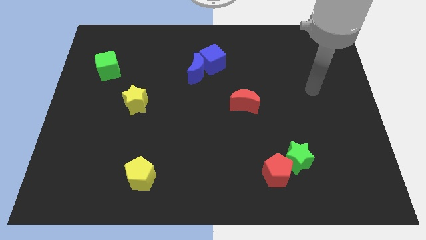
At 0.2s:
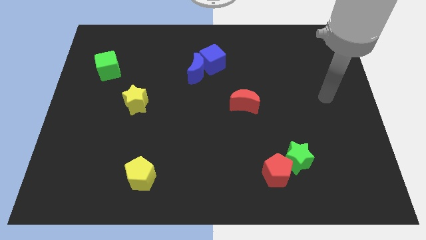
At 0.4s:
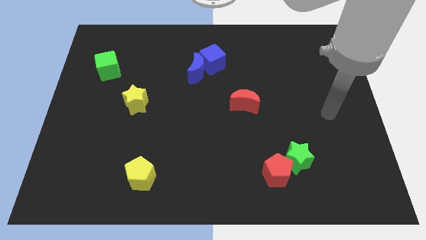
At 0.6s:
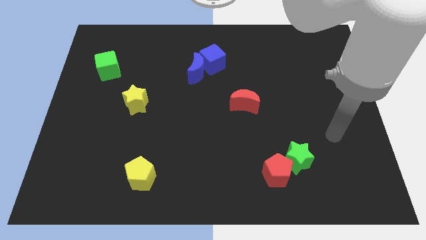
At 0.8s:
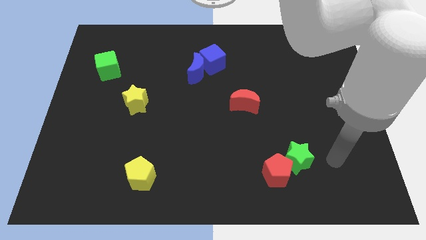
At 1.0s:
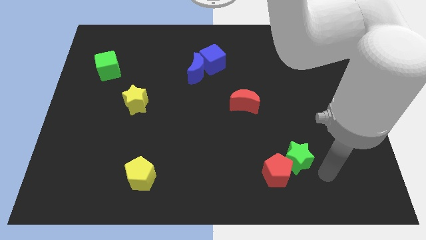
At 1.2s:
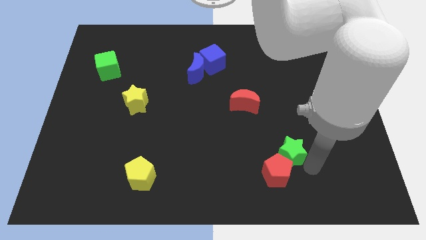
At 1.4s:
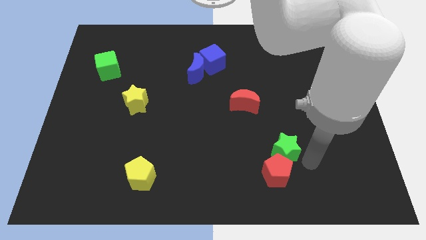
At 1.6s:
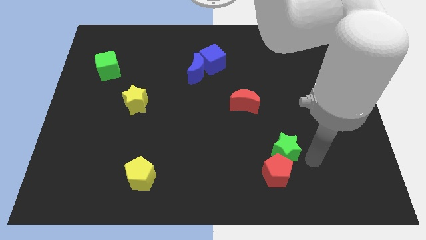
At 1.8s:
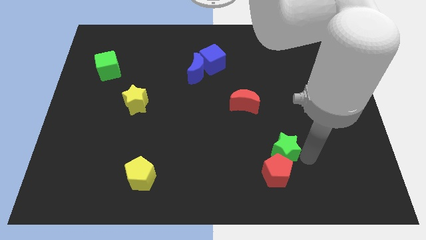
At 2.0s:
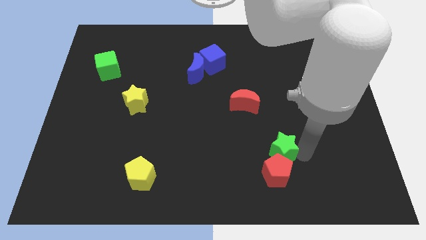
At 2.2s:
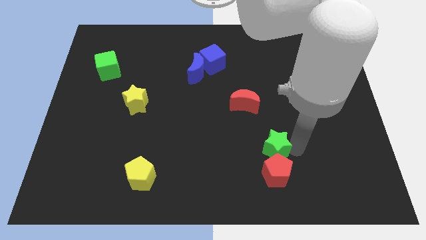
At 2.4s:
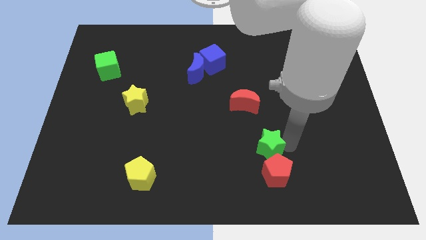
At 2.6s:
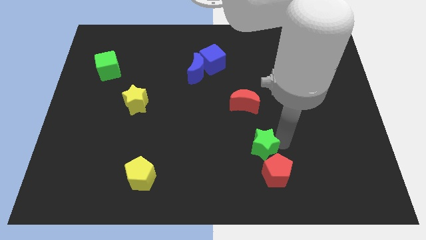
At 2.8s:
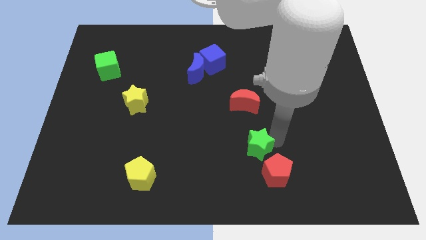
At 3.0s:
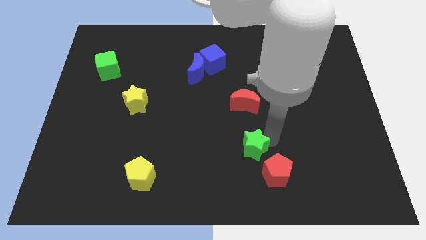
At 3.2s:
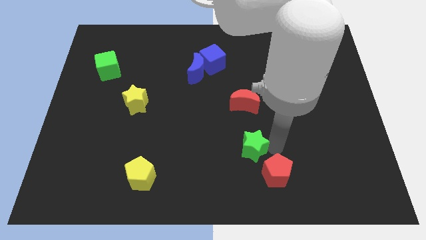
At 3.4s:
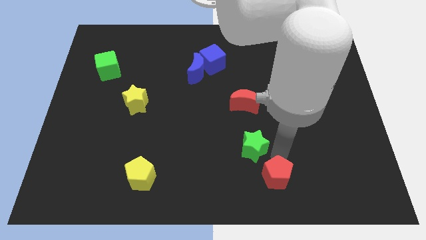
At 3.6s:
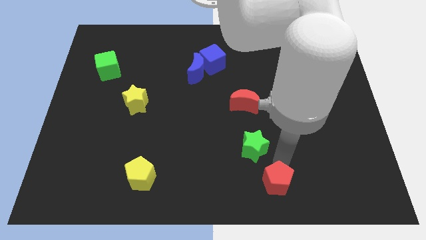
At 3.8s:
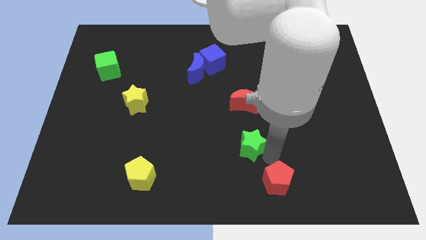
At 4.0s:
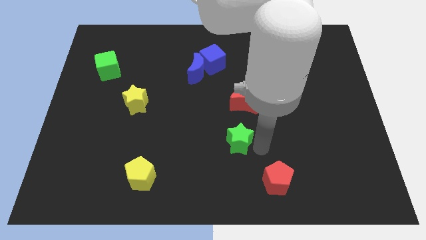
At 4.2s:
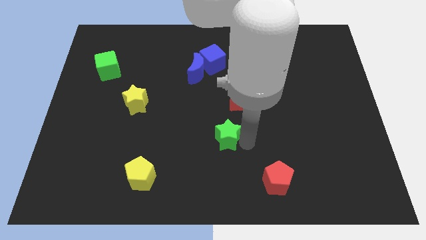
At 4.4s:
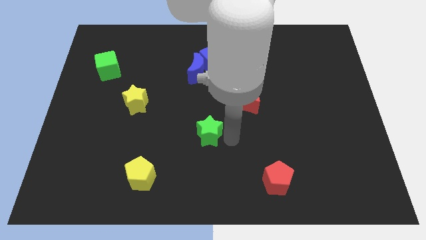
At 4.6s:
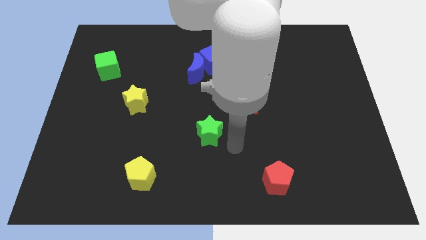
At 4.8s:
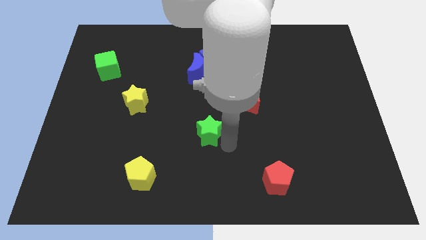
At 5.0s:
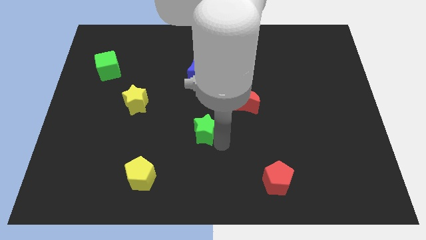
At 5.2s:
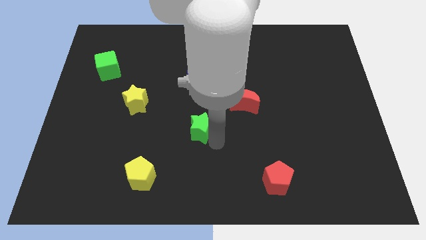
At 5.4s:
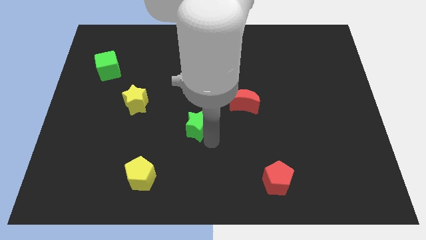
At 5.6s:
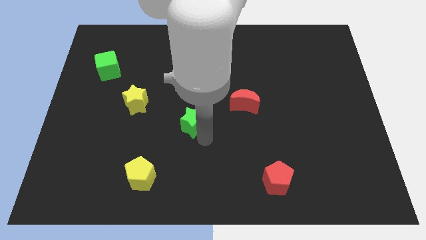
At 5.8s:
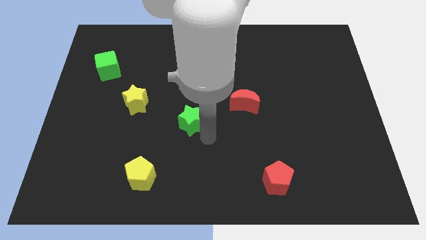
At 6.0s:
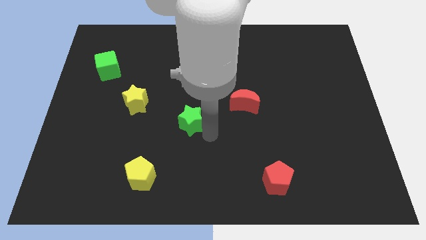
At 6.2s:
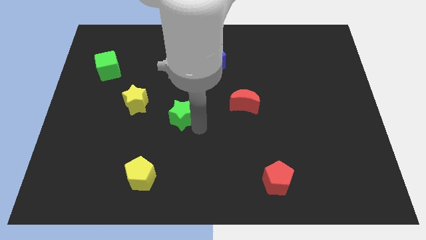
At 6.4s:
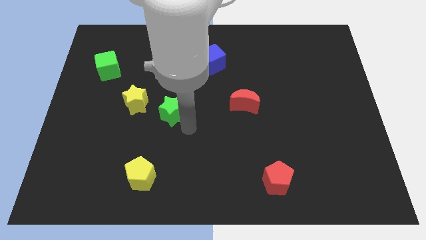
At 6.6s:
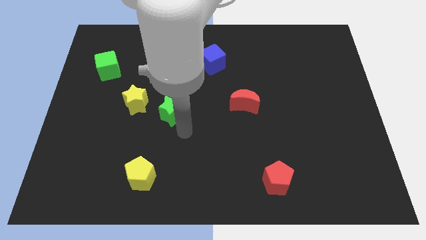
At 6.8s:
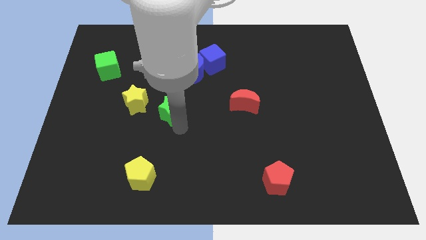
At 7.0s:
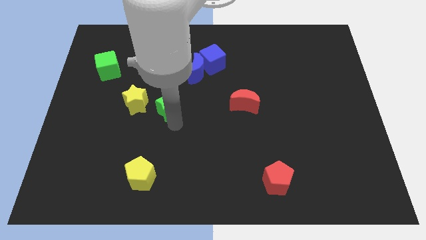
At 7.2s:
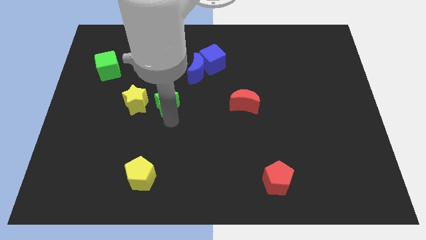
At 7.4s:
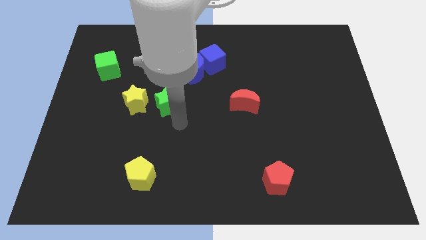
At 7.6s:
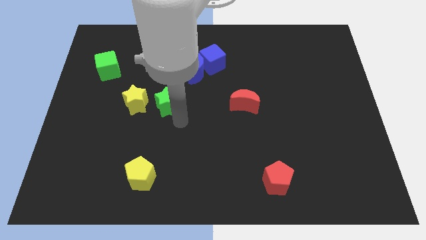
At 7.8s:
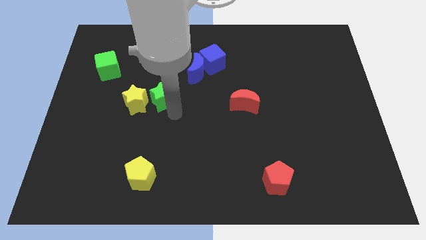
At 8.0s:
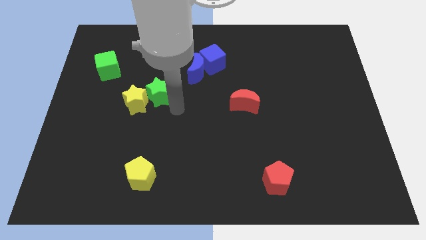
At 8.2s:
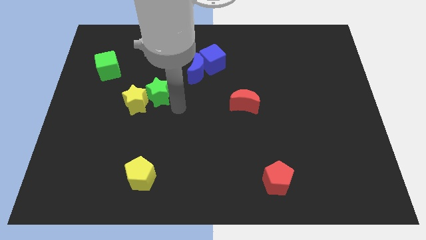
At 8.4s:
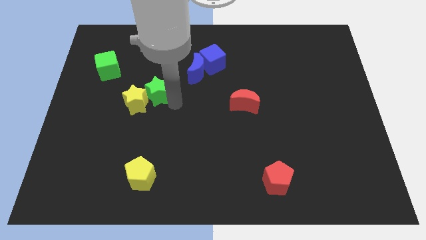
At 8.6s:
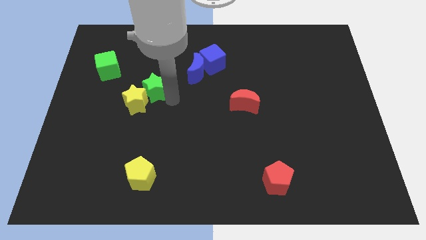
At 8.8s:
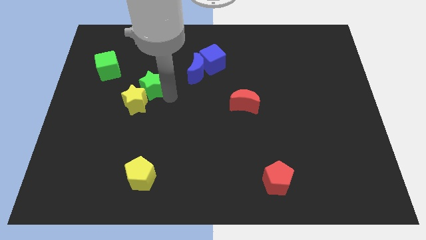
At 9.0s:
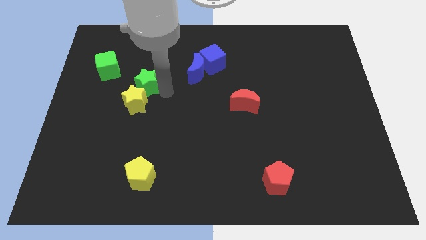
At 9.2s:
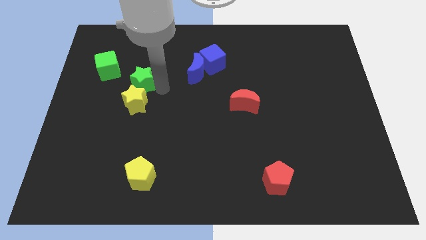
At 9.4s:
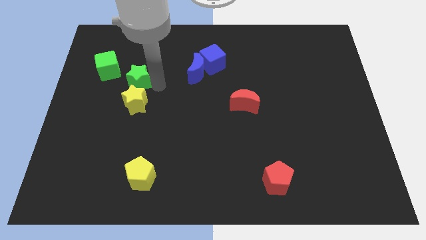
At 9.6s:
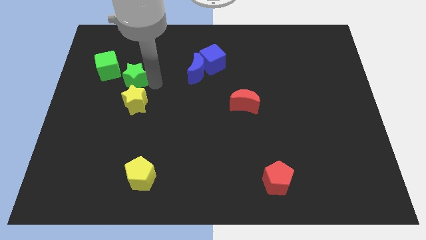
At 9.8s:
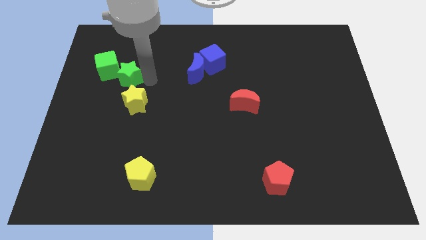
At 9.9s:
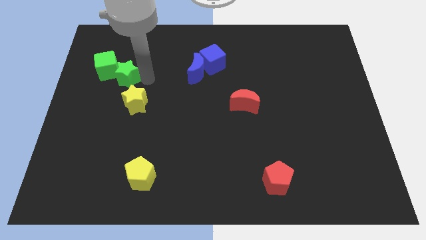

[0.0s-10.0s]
put the green star to the green cube

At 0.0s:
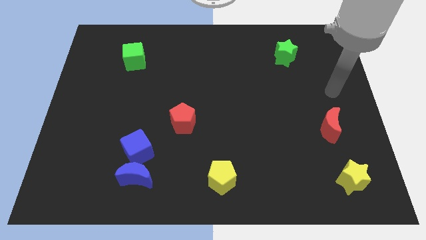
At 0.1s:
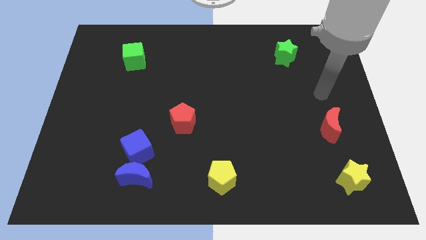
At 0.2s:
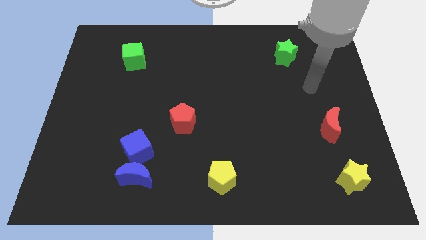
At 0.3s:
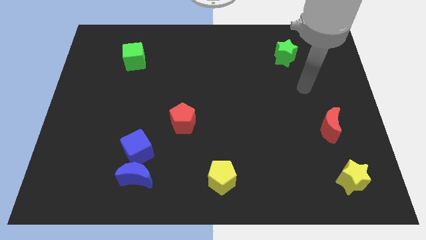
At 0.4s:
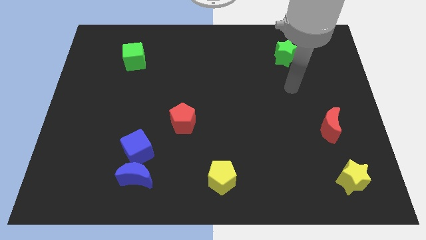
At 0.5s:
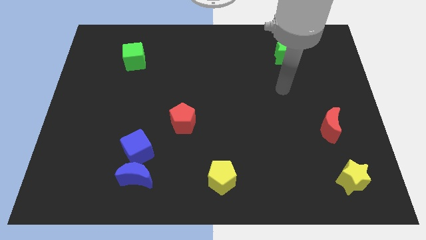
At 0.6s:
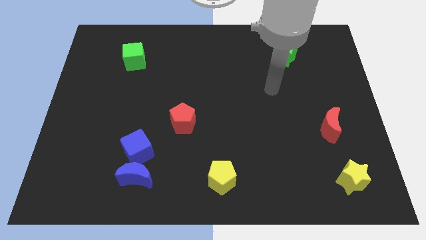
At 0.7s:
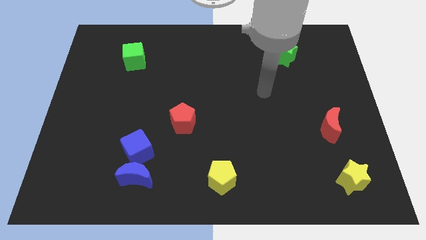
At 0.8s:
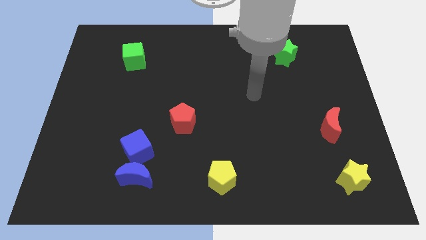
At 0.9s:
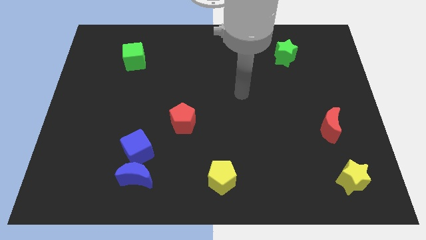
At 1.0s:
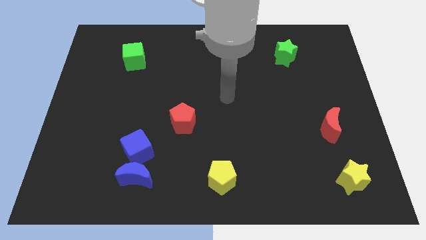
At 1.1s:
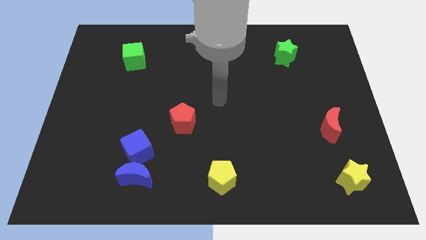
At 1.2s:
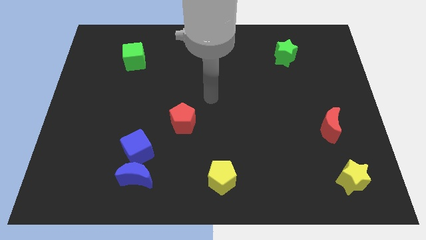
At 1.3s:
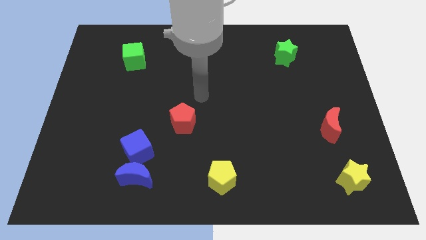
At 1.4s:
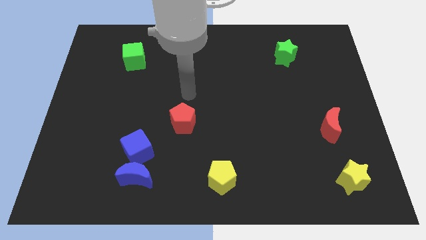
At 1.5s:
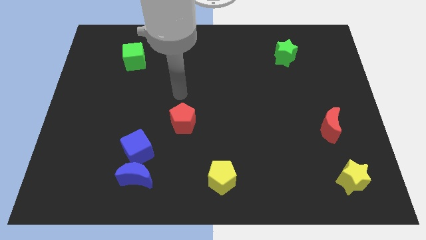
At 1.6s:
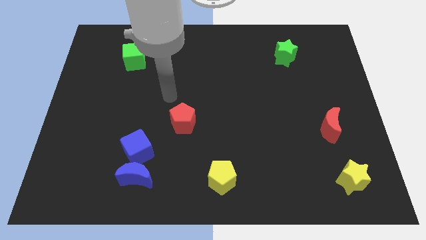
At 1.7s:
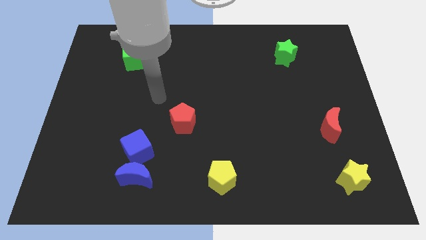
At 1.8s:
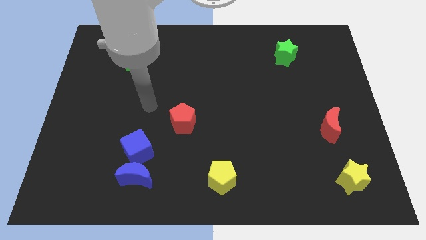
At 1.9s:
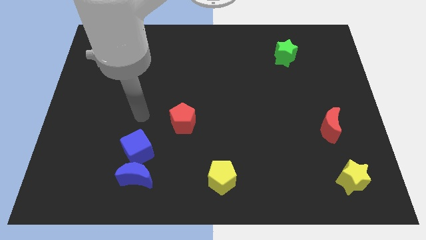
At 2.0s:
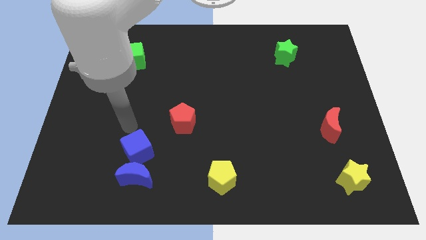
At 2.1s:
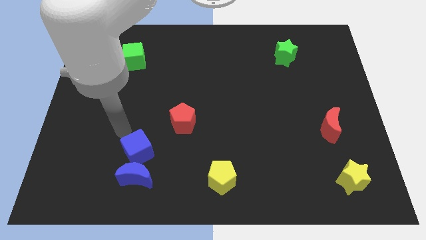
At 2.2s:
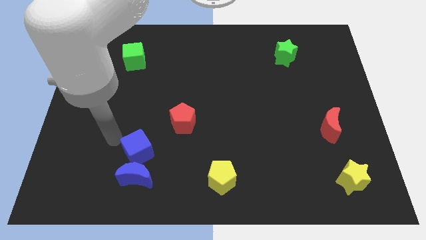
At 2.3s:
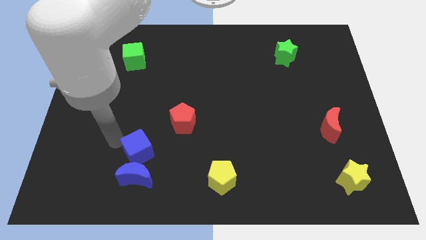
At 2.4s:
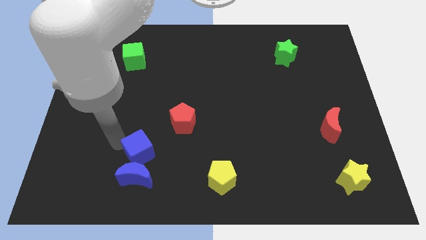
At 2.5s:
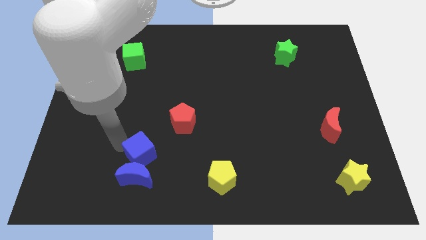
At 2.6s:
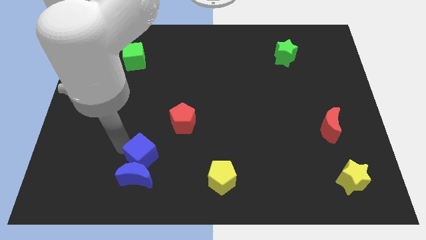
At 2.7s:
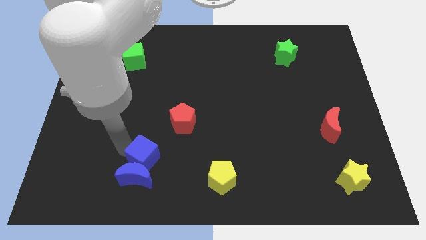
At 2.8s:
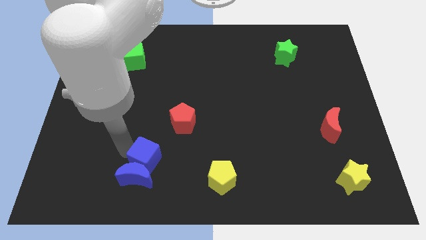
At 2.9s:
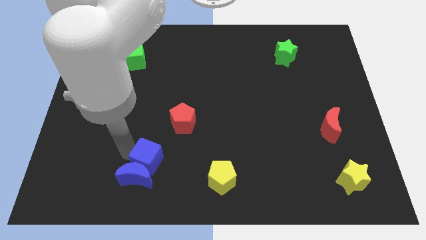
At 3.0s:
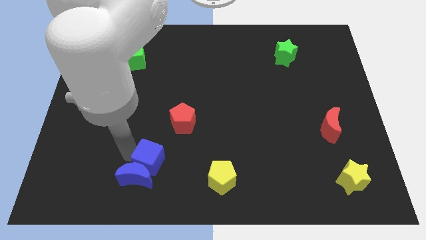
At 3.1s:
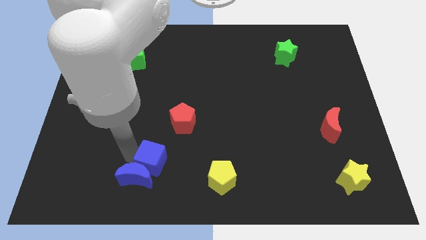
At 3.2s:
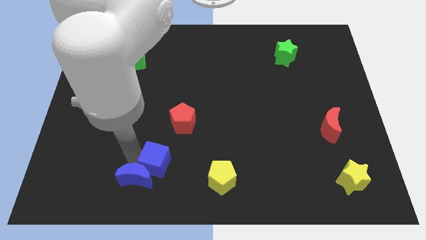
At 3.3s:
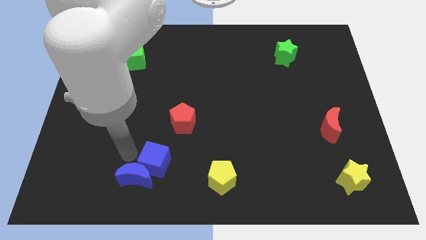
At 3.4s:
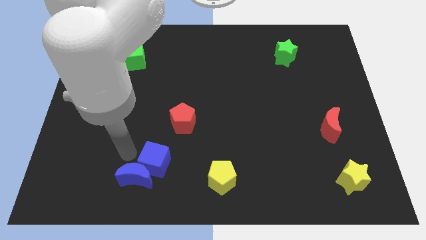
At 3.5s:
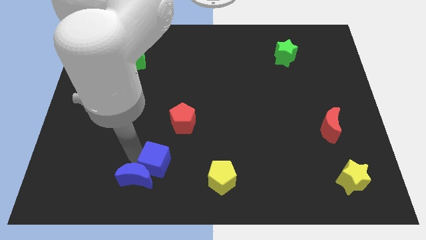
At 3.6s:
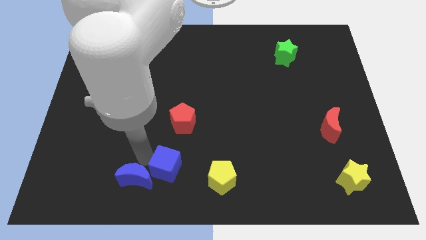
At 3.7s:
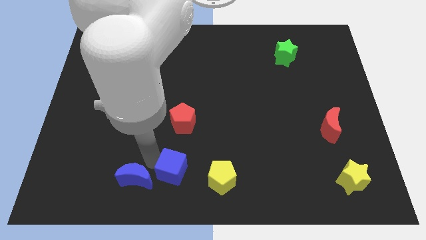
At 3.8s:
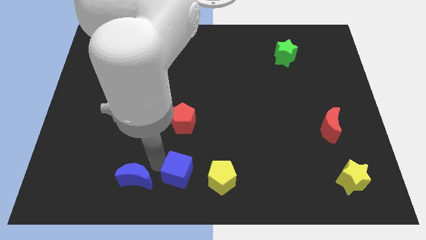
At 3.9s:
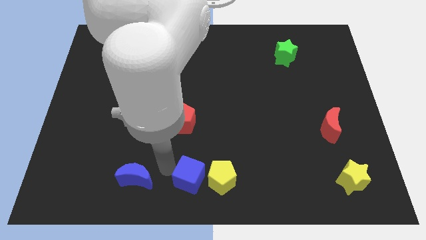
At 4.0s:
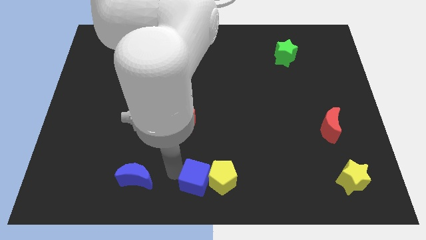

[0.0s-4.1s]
push the blue cube close to the yellow pentagon
